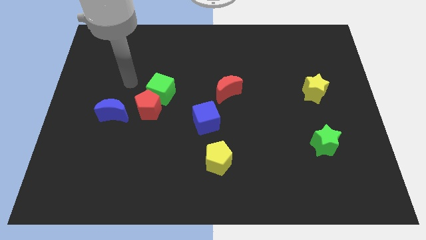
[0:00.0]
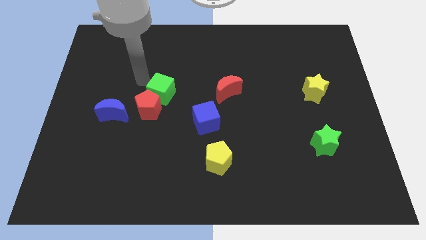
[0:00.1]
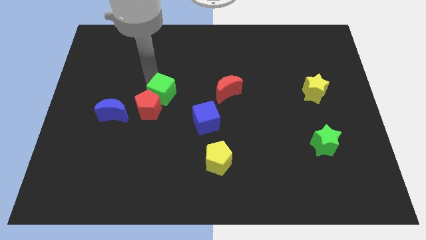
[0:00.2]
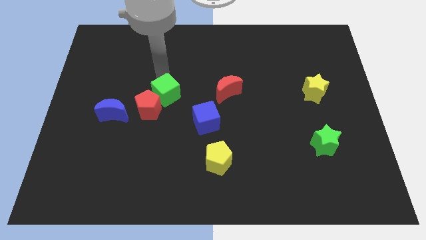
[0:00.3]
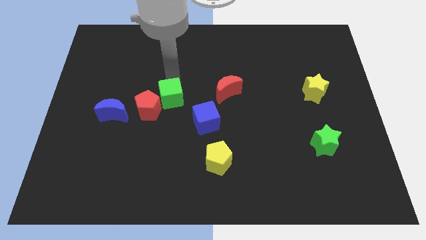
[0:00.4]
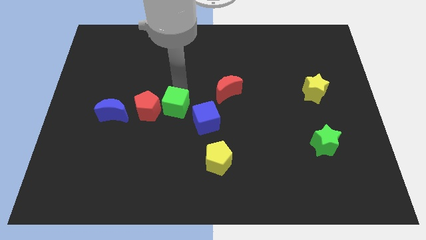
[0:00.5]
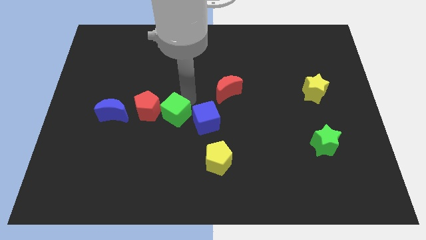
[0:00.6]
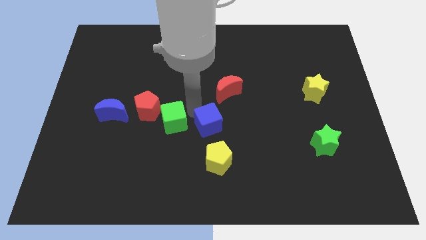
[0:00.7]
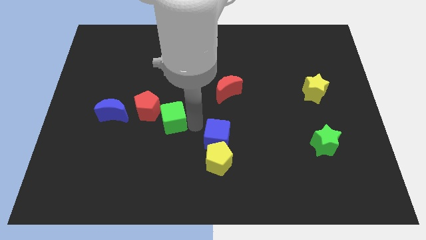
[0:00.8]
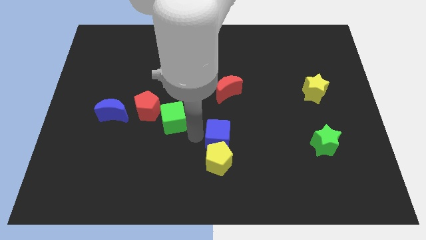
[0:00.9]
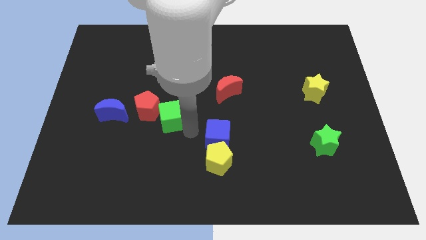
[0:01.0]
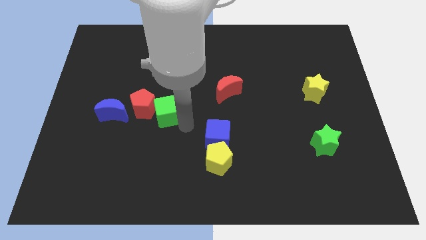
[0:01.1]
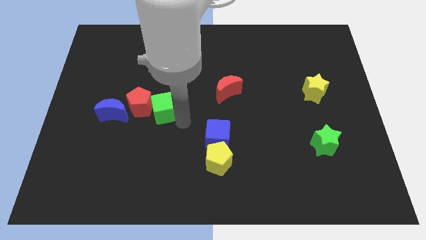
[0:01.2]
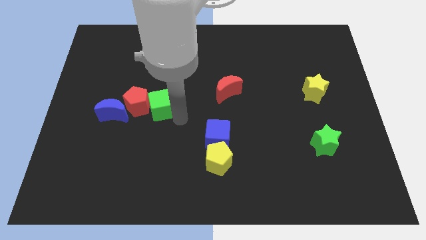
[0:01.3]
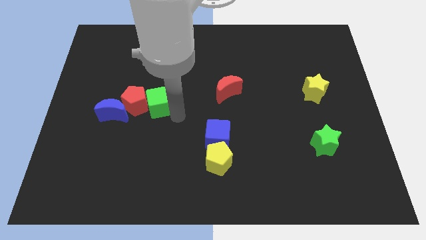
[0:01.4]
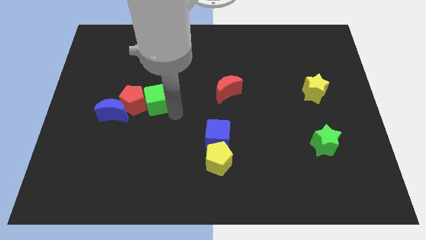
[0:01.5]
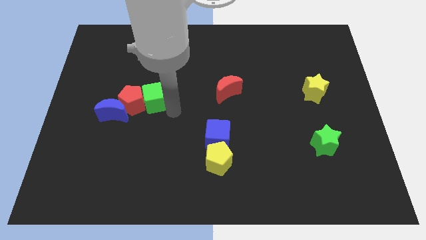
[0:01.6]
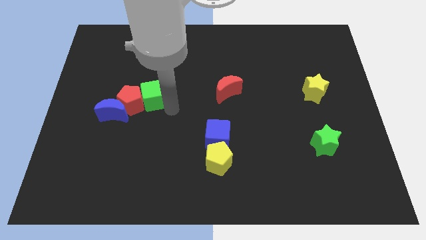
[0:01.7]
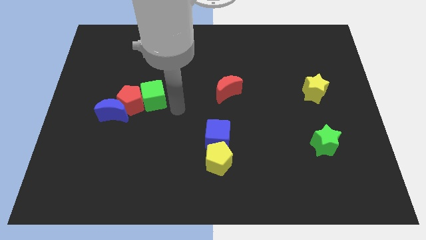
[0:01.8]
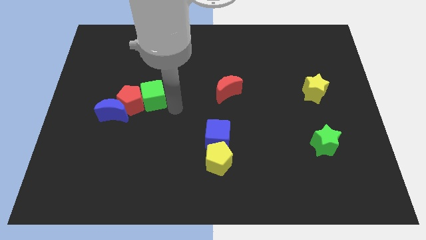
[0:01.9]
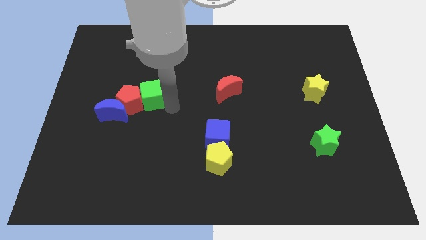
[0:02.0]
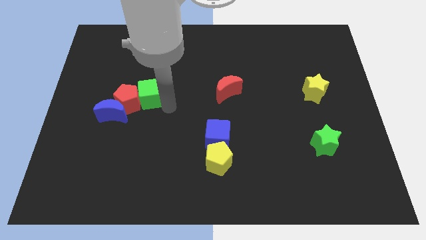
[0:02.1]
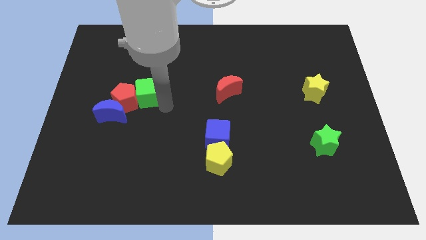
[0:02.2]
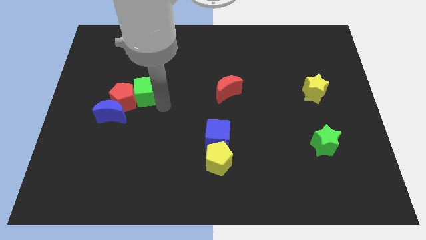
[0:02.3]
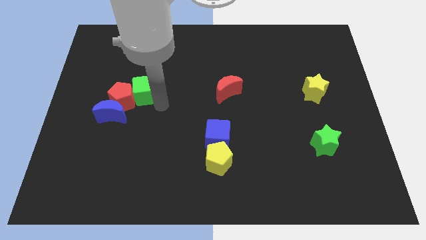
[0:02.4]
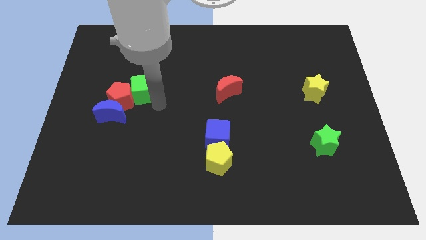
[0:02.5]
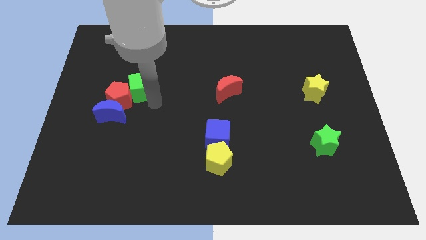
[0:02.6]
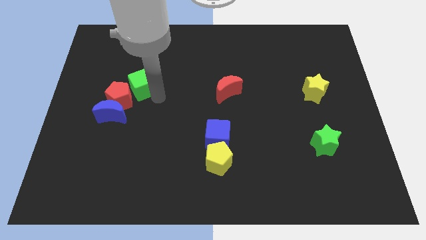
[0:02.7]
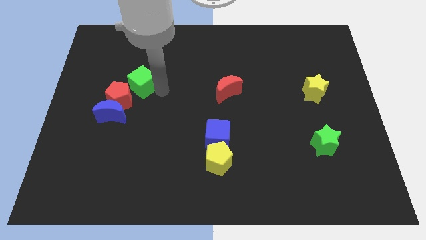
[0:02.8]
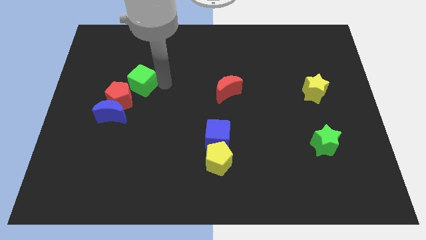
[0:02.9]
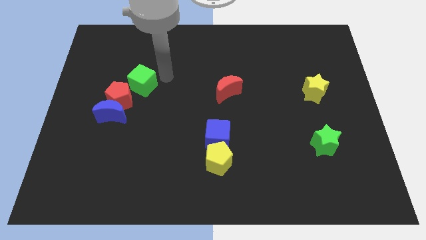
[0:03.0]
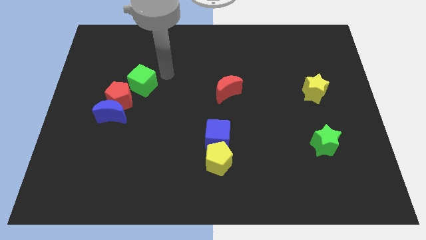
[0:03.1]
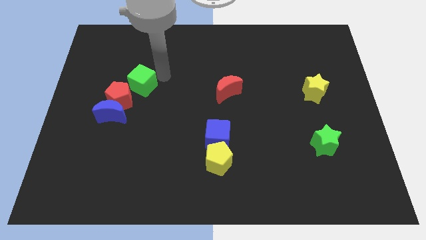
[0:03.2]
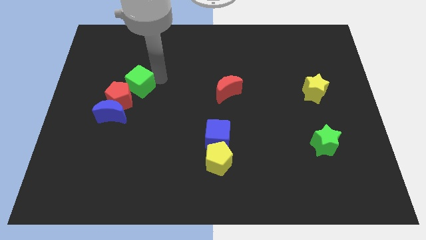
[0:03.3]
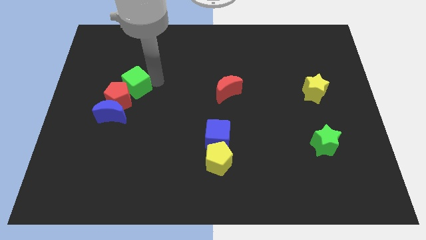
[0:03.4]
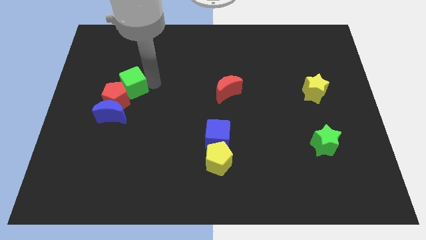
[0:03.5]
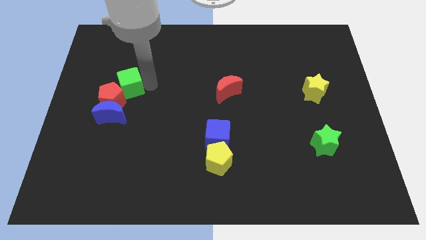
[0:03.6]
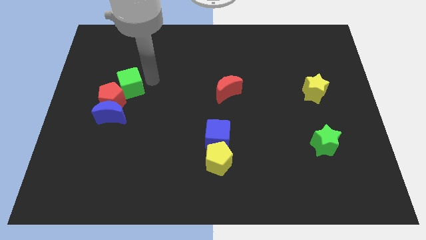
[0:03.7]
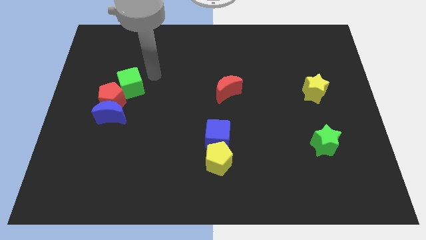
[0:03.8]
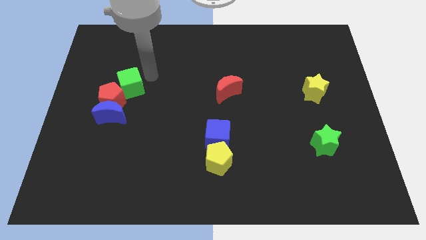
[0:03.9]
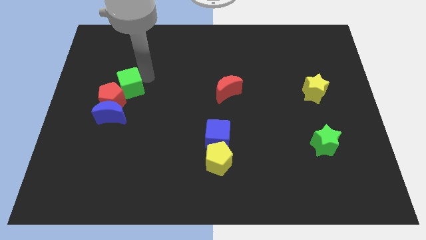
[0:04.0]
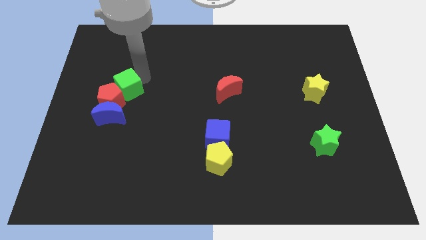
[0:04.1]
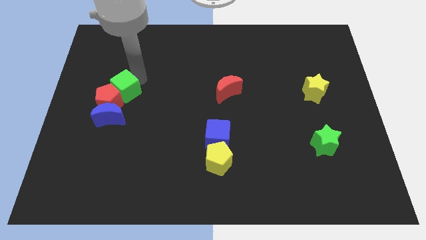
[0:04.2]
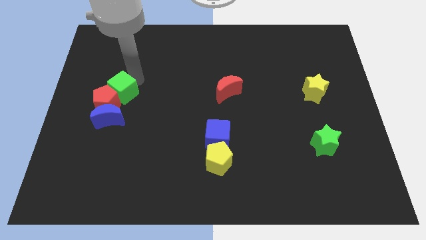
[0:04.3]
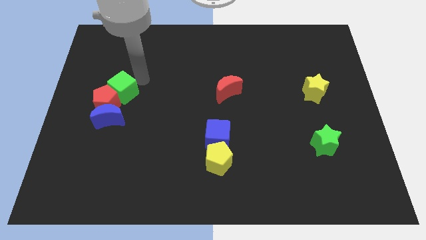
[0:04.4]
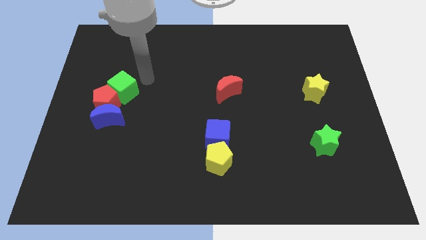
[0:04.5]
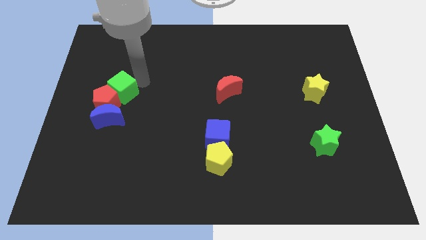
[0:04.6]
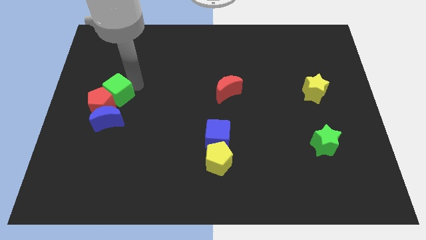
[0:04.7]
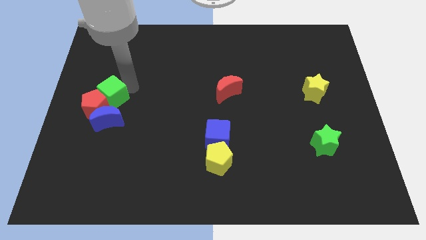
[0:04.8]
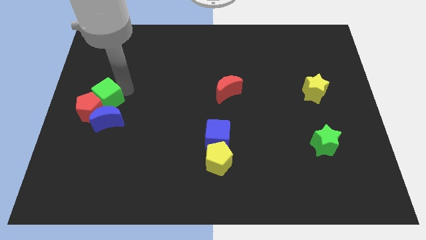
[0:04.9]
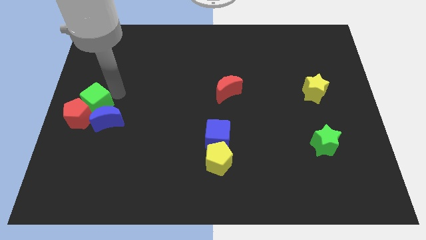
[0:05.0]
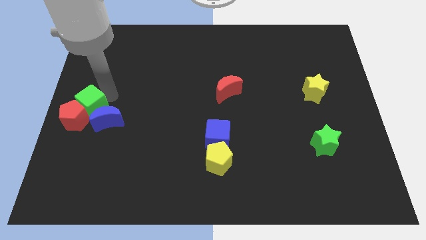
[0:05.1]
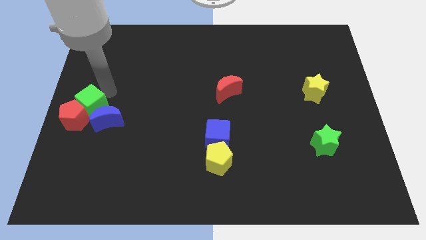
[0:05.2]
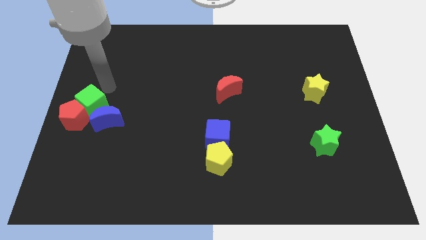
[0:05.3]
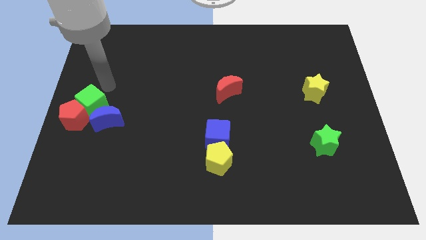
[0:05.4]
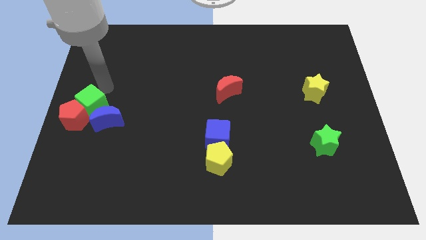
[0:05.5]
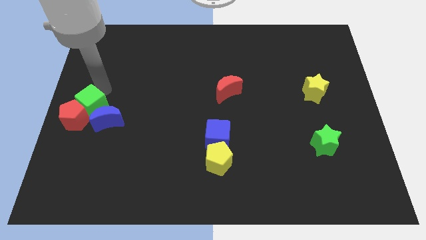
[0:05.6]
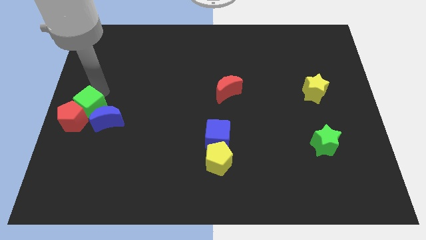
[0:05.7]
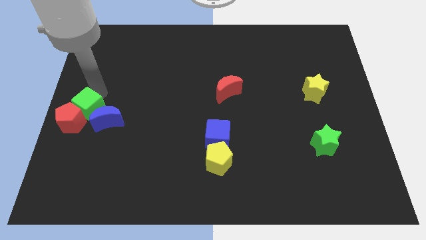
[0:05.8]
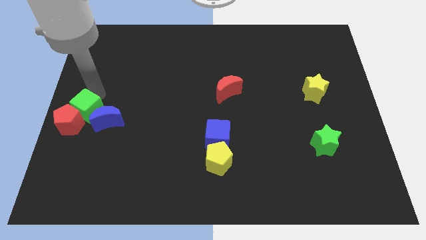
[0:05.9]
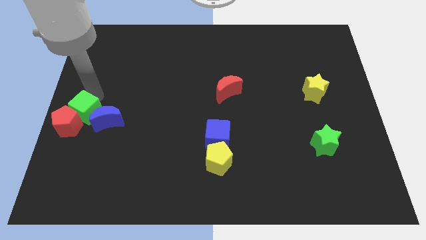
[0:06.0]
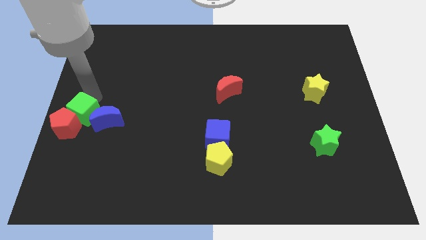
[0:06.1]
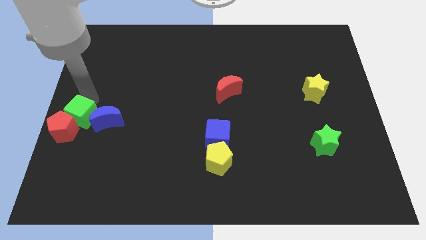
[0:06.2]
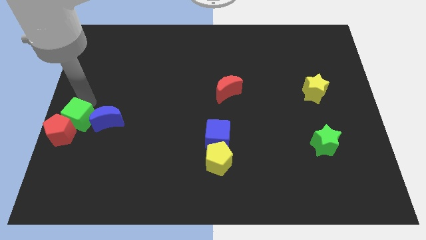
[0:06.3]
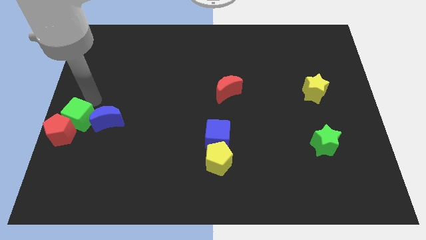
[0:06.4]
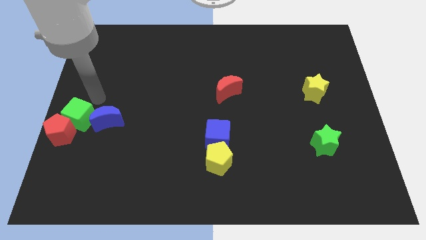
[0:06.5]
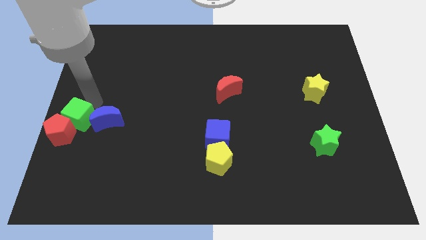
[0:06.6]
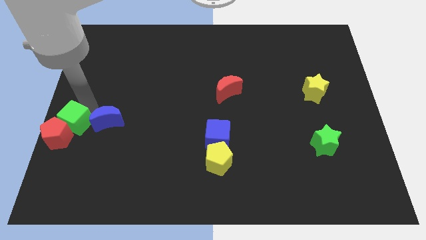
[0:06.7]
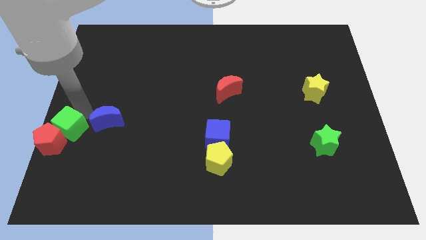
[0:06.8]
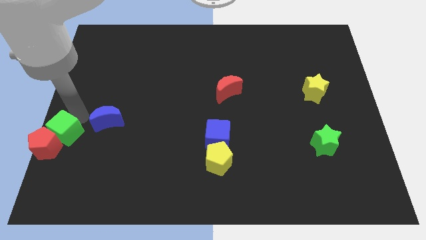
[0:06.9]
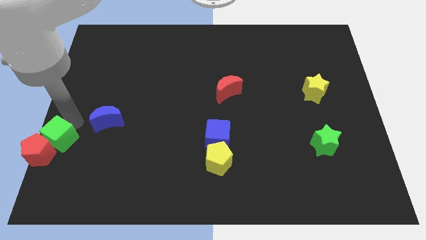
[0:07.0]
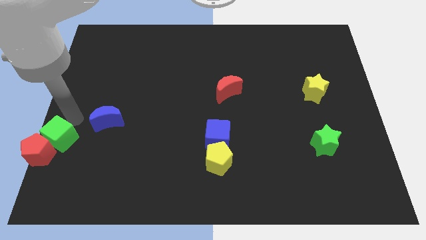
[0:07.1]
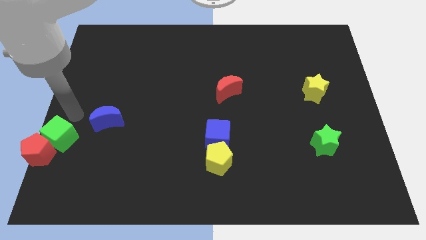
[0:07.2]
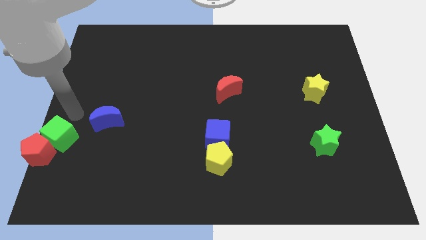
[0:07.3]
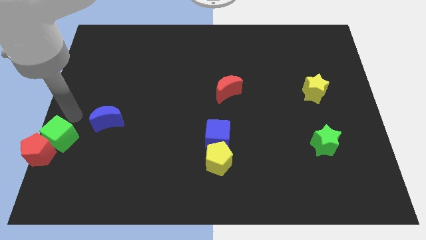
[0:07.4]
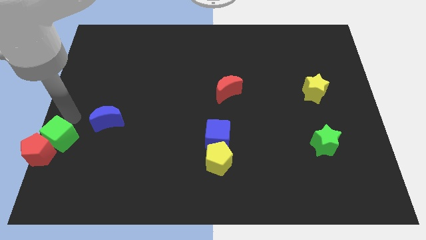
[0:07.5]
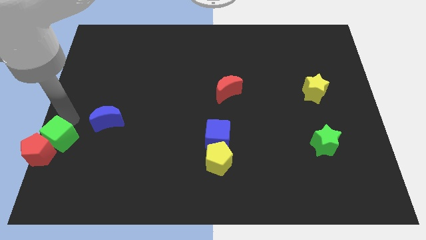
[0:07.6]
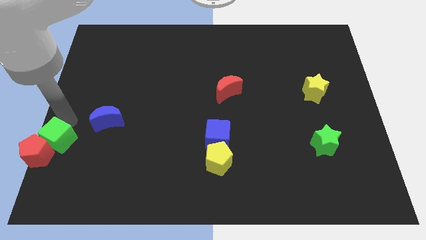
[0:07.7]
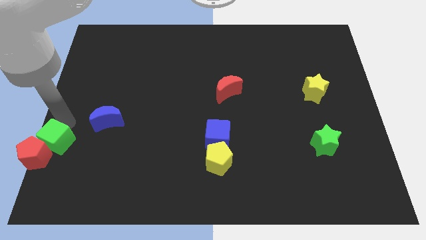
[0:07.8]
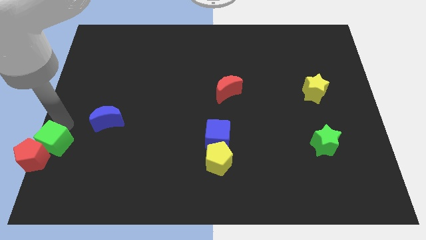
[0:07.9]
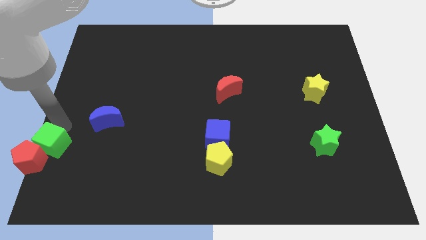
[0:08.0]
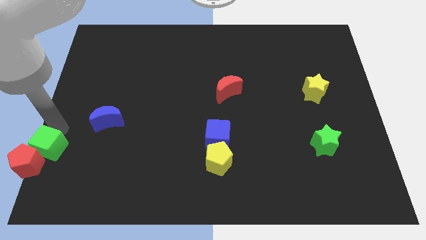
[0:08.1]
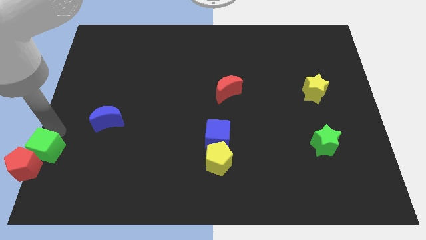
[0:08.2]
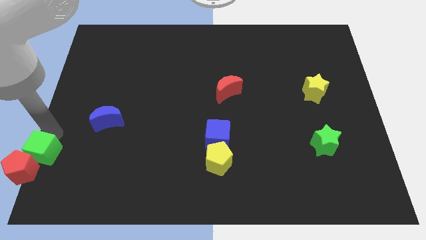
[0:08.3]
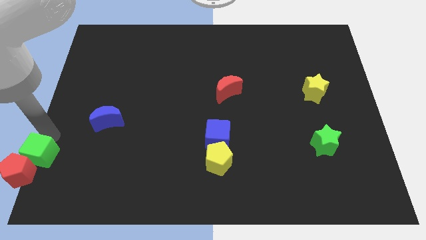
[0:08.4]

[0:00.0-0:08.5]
push the green cube to the lower left corner
